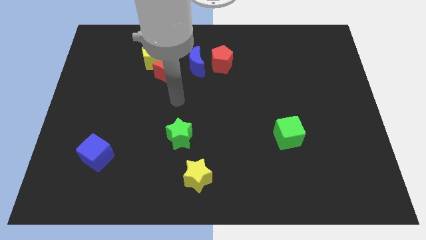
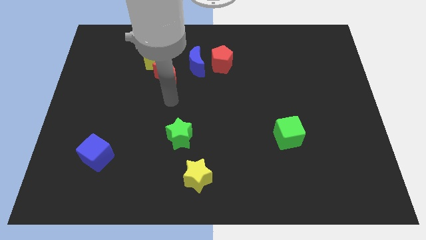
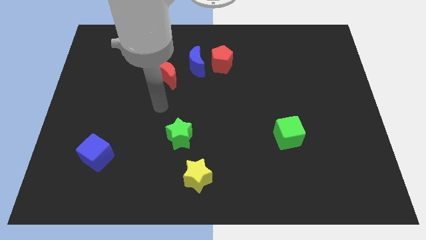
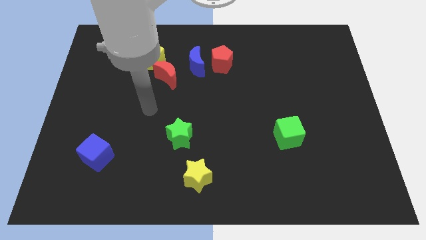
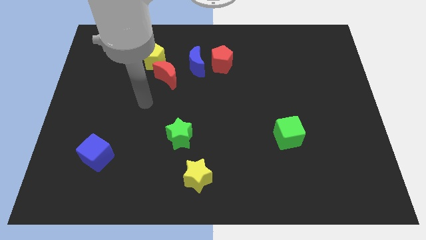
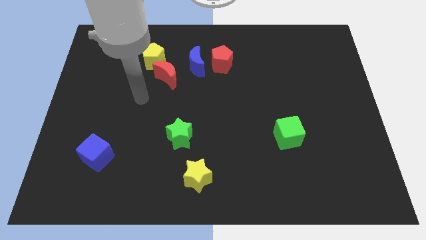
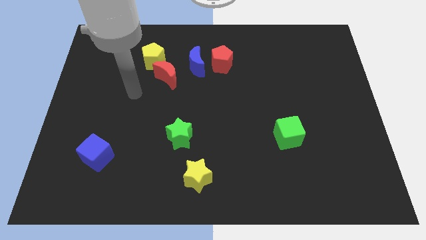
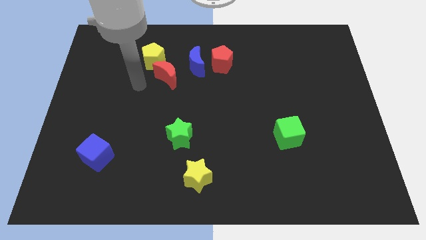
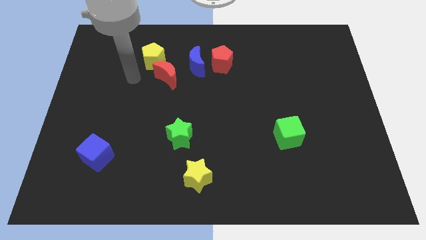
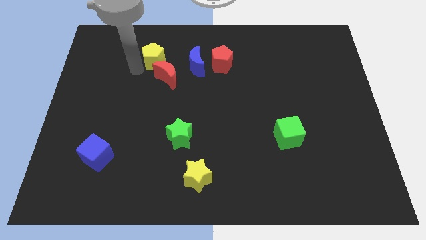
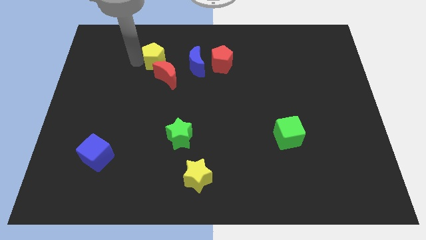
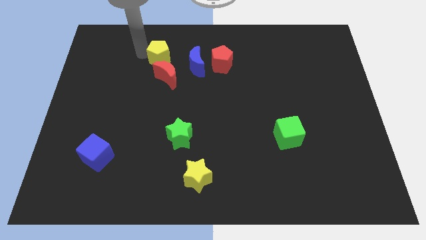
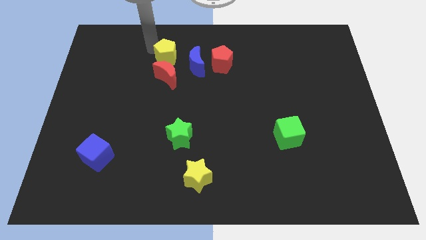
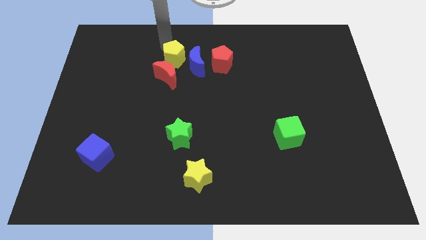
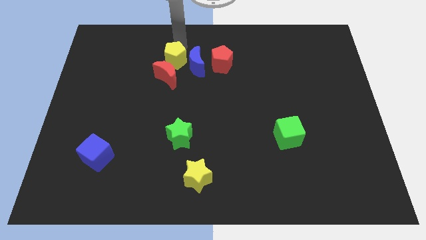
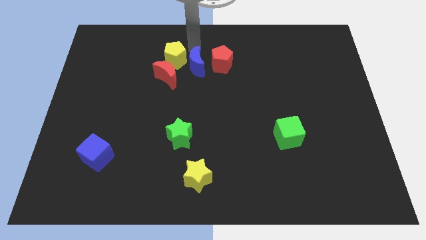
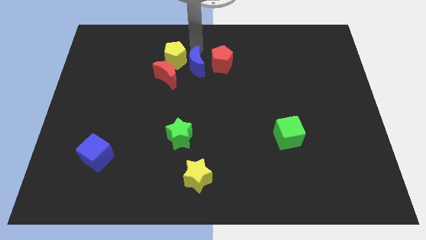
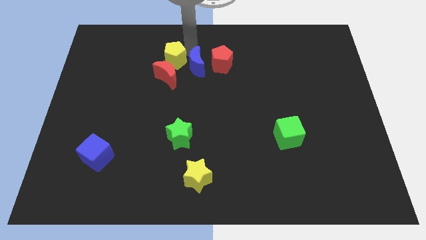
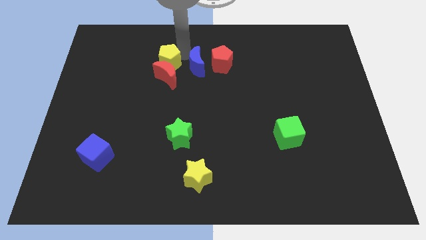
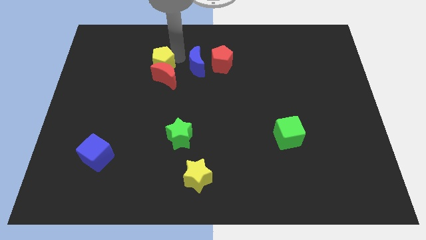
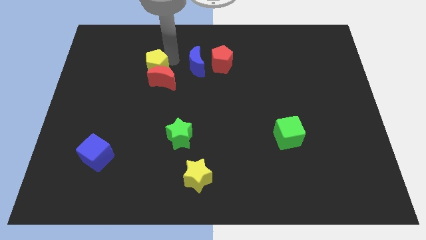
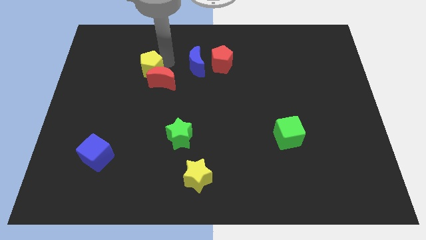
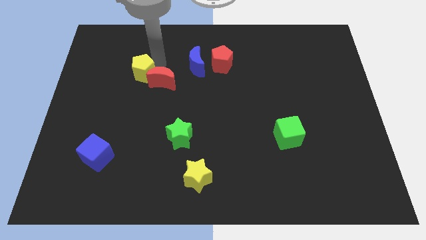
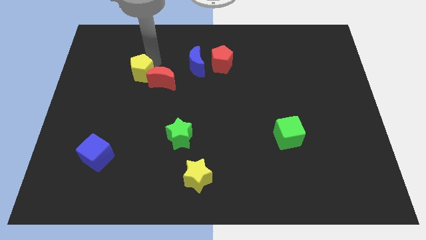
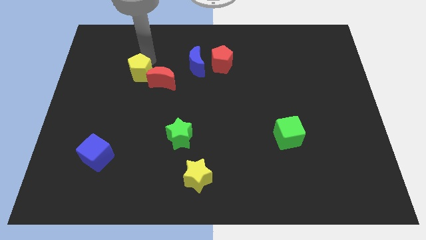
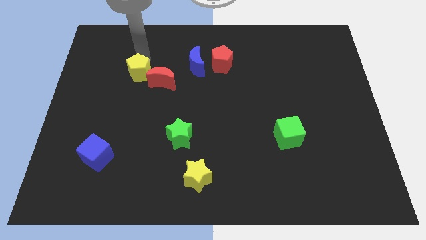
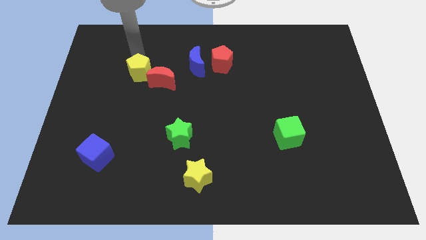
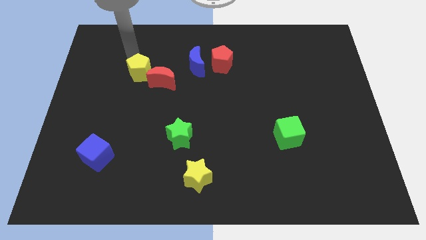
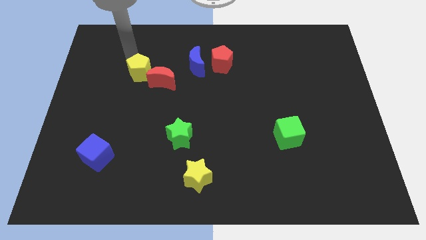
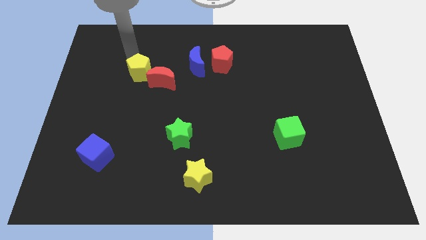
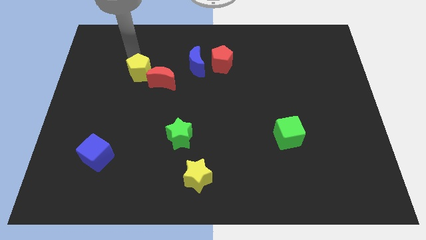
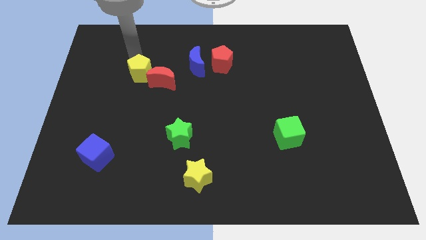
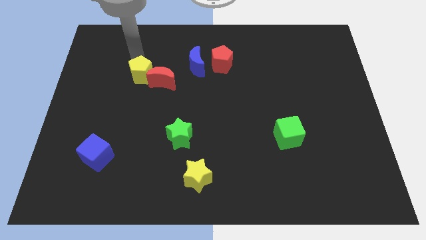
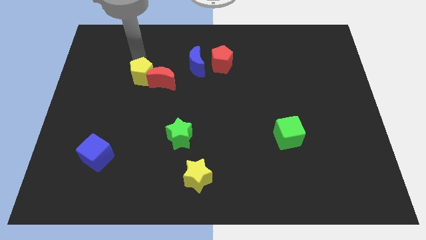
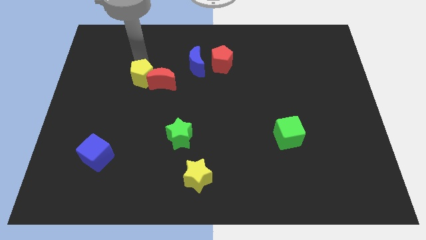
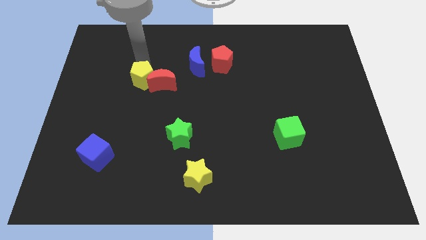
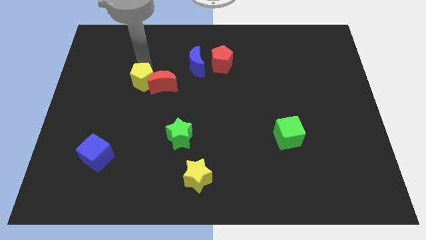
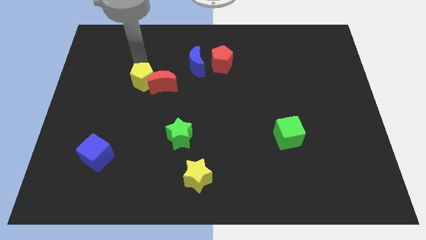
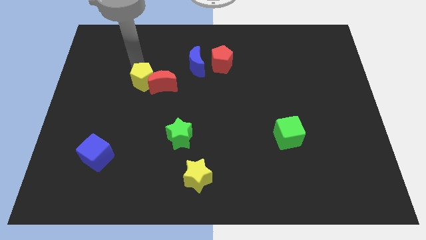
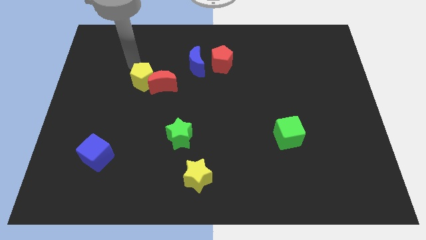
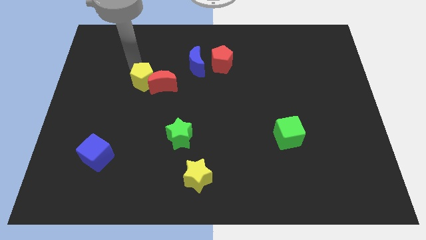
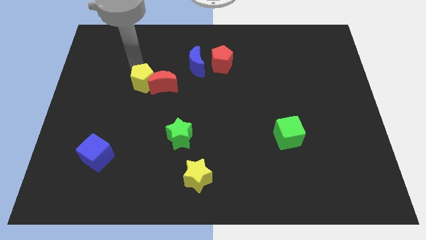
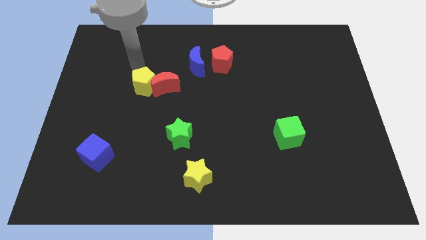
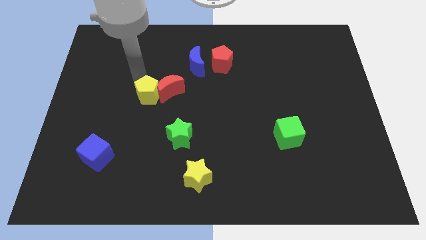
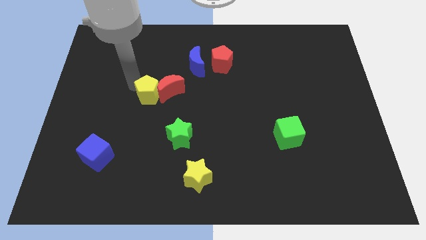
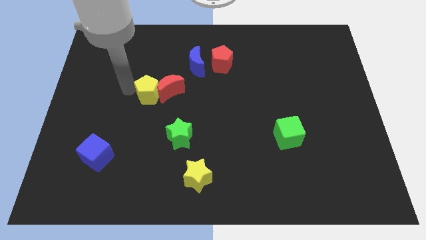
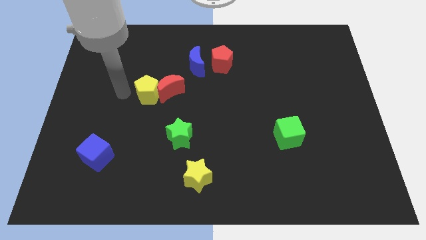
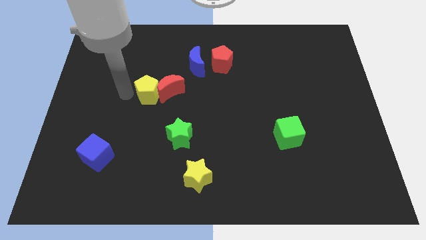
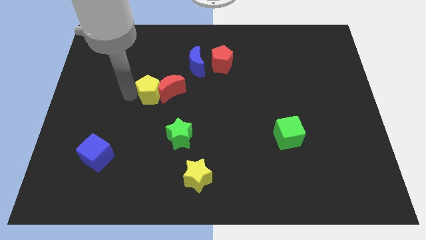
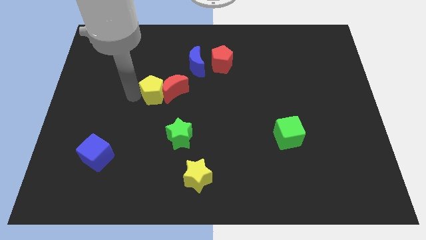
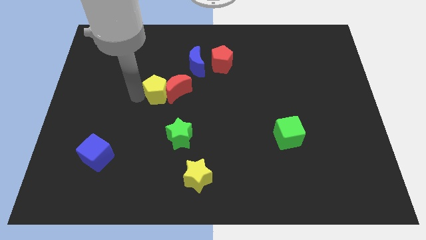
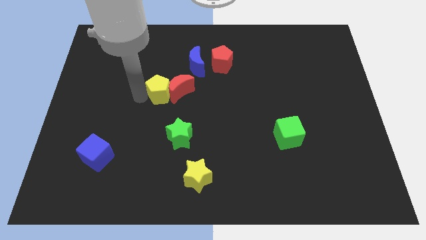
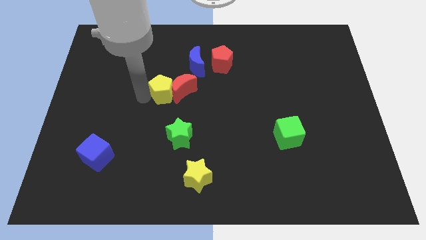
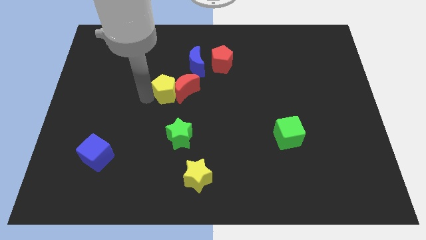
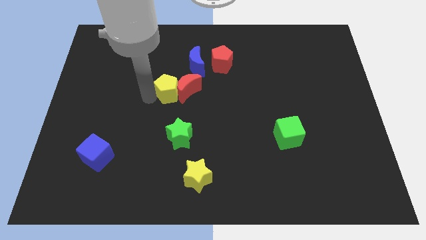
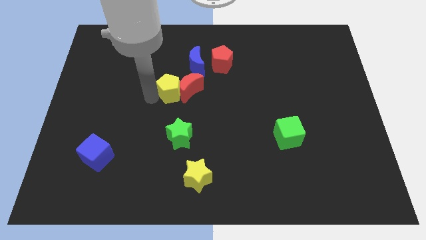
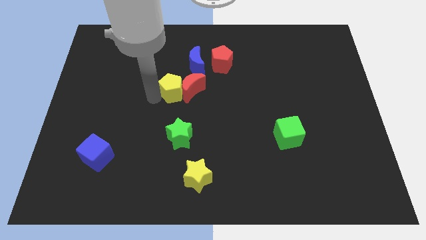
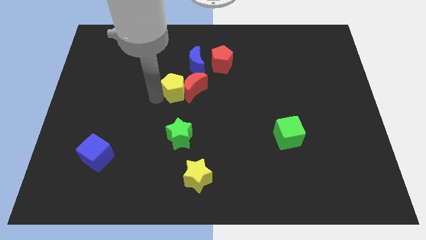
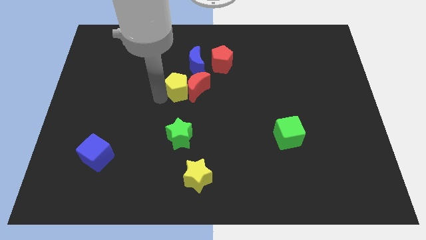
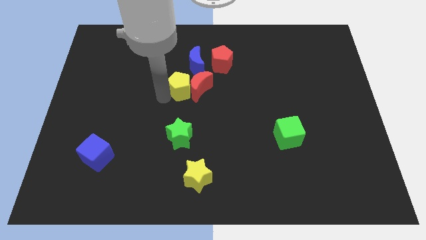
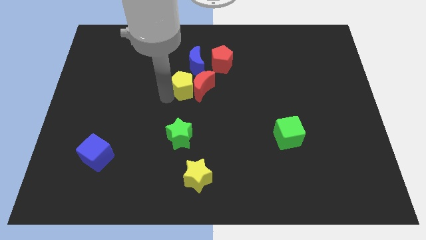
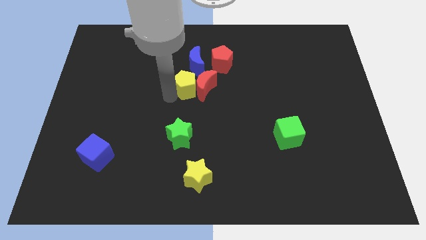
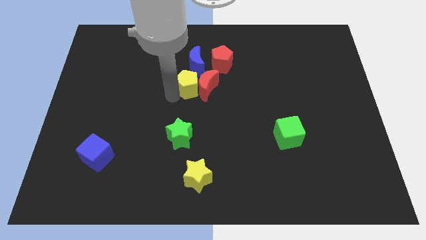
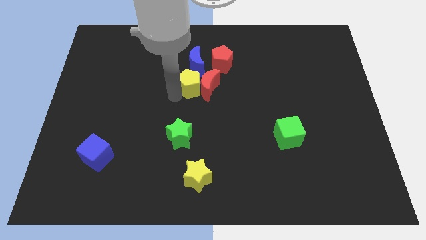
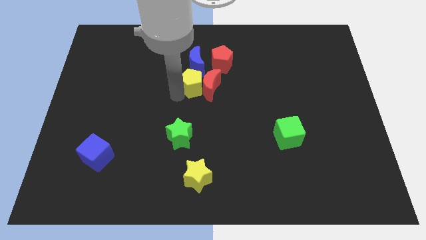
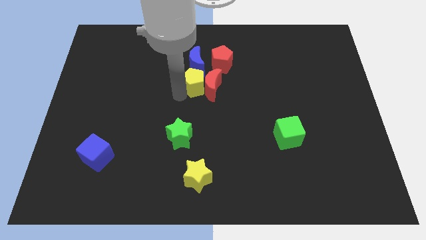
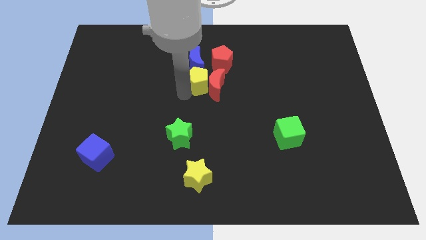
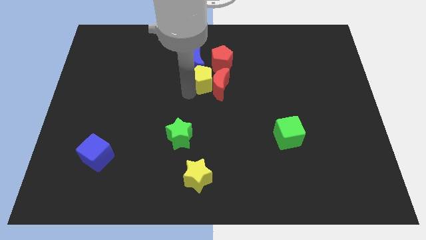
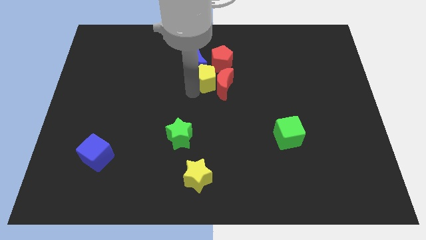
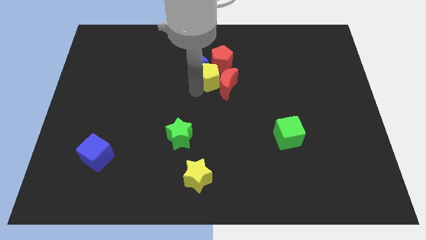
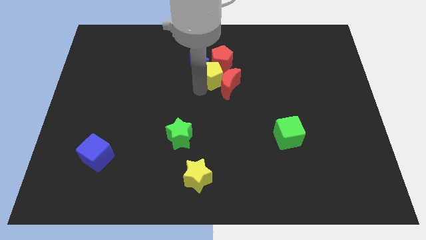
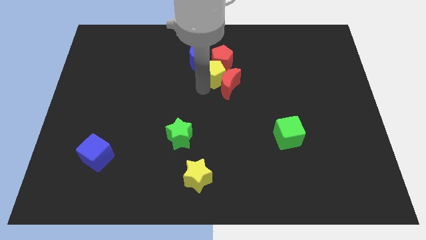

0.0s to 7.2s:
put the yellow pentagon diagonally down and to the right of the red pentagon
